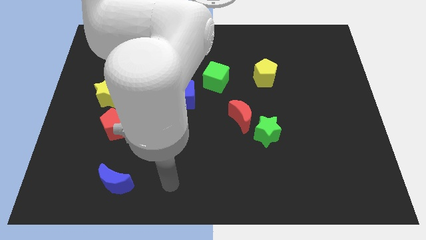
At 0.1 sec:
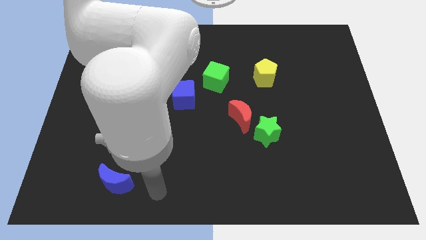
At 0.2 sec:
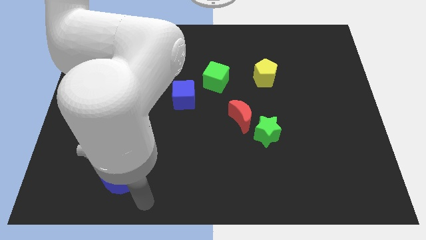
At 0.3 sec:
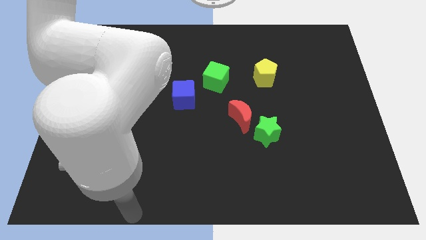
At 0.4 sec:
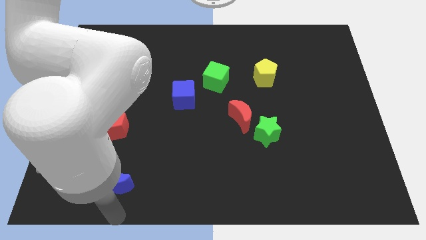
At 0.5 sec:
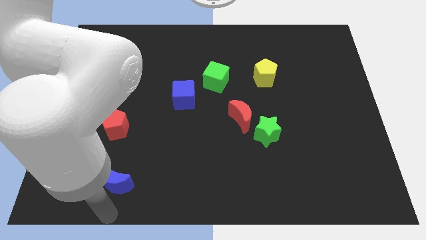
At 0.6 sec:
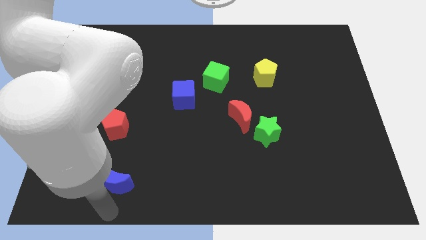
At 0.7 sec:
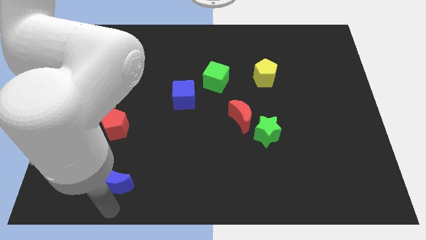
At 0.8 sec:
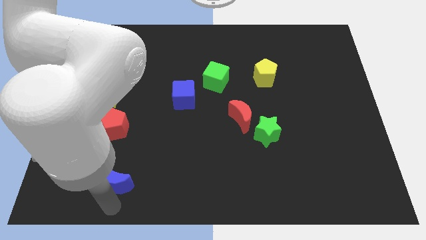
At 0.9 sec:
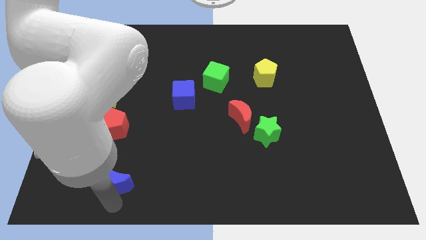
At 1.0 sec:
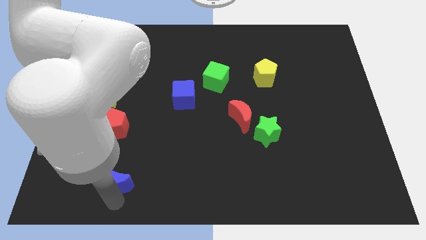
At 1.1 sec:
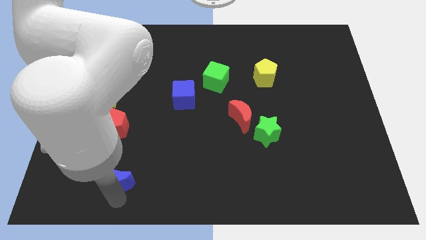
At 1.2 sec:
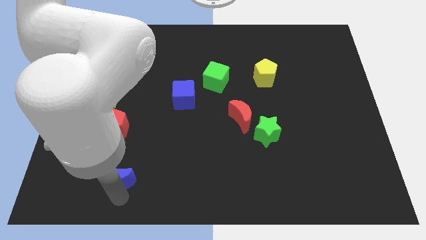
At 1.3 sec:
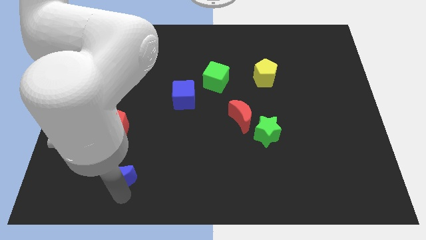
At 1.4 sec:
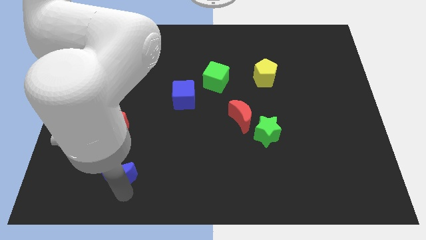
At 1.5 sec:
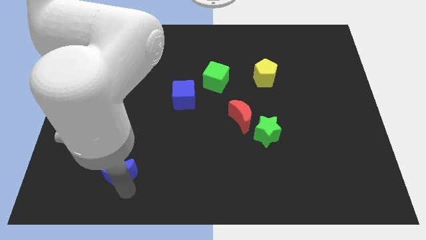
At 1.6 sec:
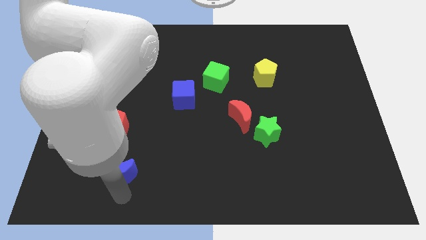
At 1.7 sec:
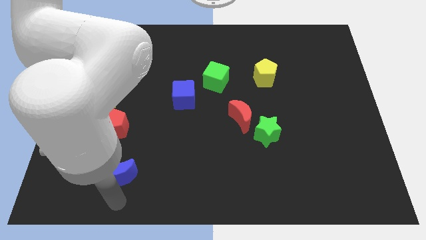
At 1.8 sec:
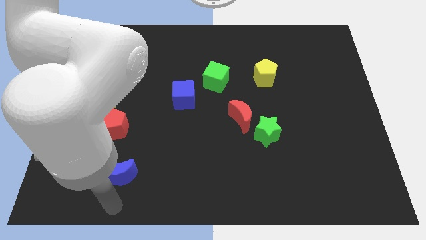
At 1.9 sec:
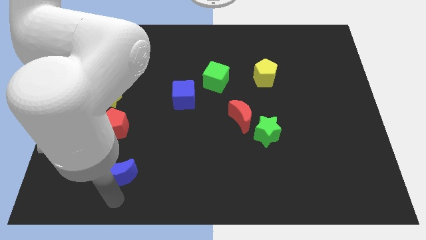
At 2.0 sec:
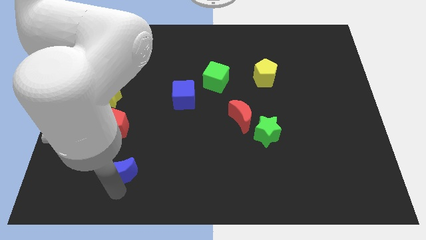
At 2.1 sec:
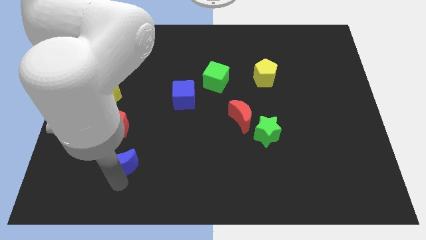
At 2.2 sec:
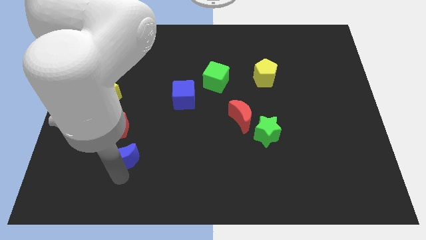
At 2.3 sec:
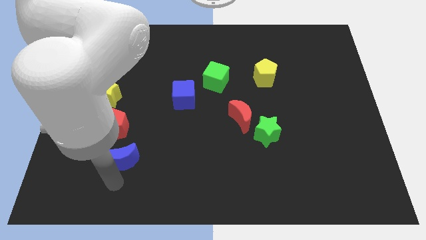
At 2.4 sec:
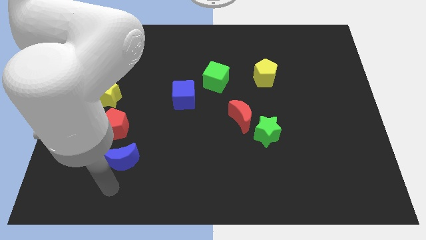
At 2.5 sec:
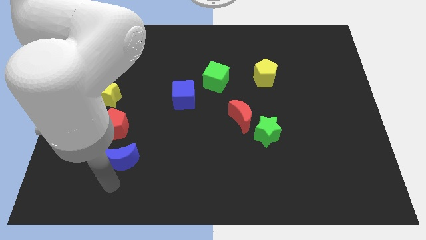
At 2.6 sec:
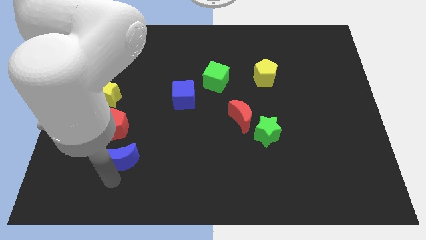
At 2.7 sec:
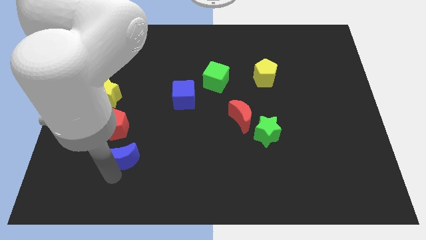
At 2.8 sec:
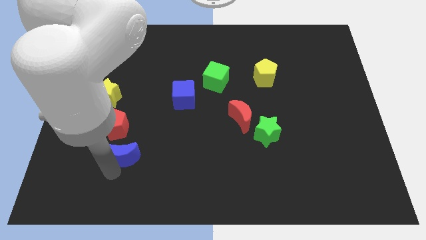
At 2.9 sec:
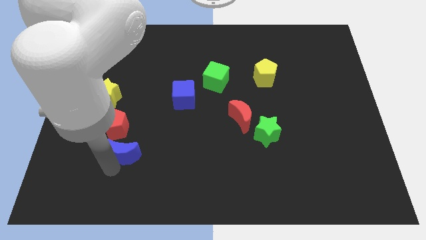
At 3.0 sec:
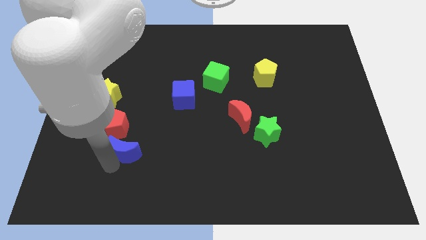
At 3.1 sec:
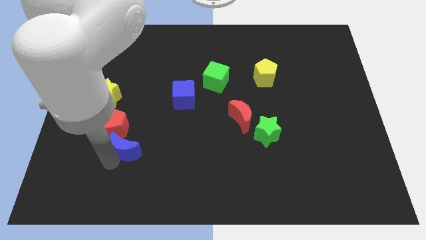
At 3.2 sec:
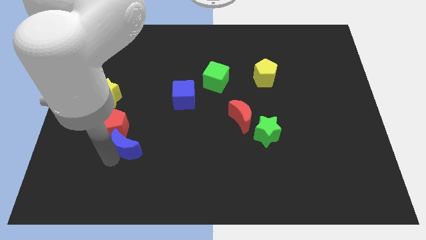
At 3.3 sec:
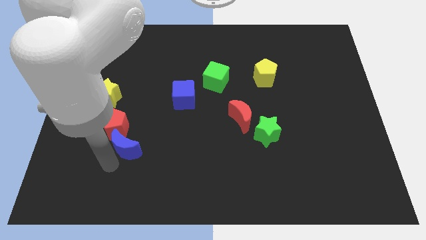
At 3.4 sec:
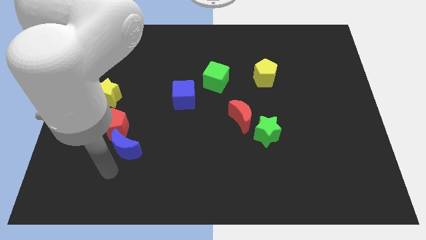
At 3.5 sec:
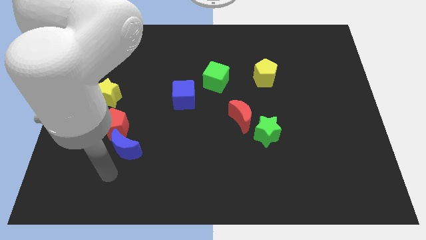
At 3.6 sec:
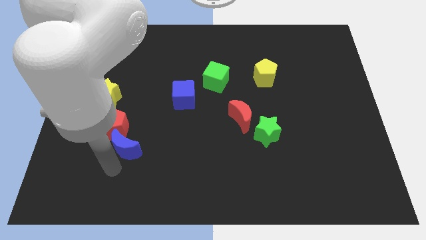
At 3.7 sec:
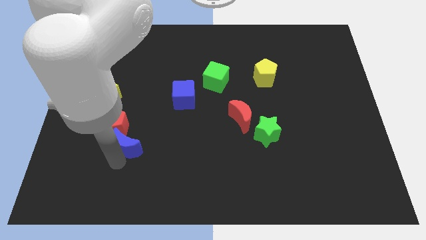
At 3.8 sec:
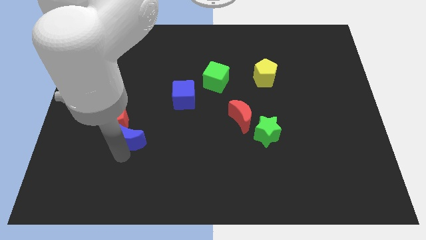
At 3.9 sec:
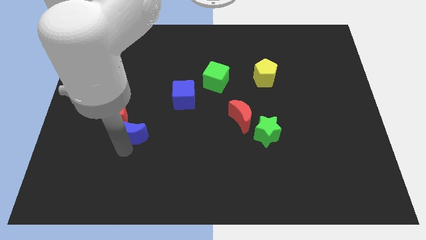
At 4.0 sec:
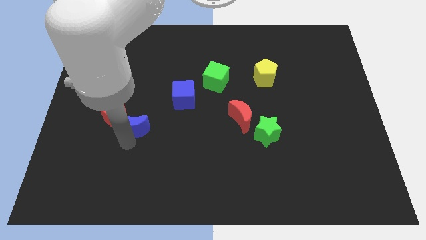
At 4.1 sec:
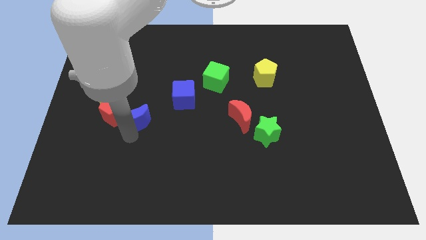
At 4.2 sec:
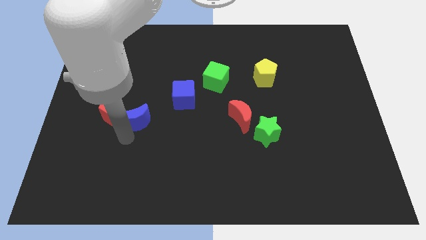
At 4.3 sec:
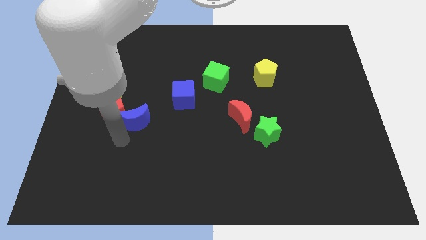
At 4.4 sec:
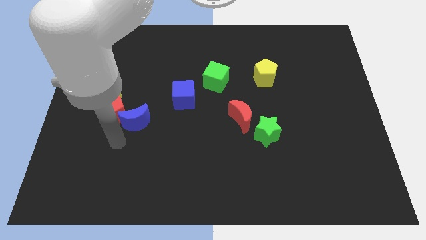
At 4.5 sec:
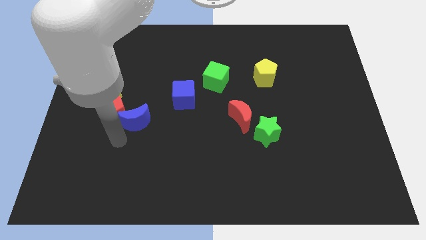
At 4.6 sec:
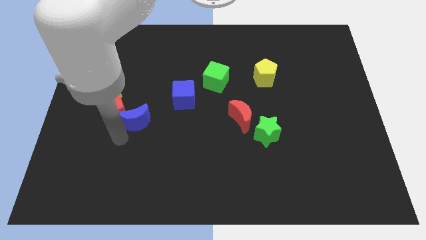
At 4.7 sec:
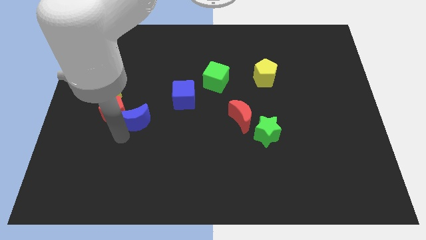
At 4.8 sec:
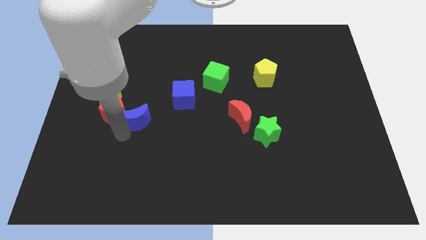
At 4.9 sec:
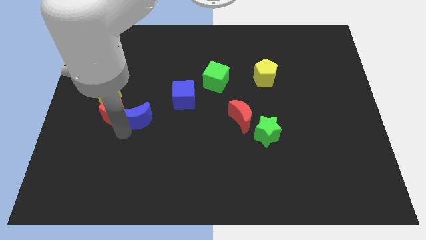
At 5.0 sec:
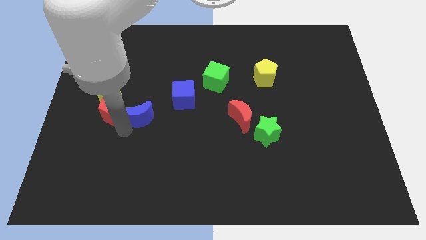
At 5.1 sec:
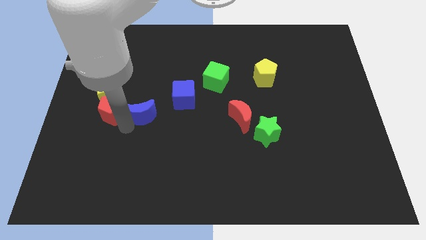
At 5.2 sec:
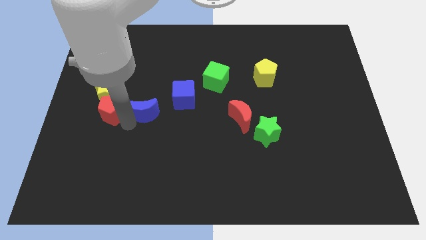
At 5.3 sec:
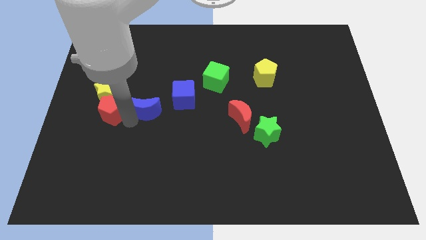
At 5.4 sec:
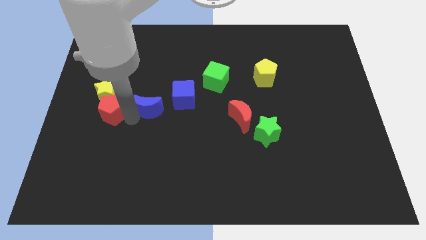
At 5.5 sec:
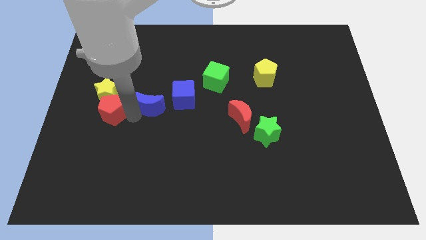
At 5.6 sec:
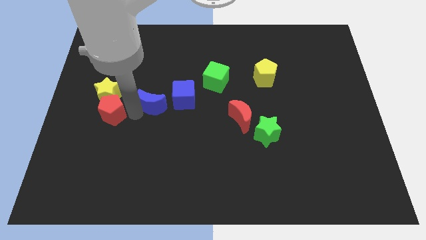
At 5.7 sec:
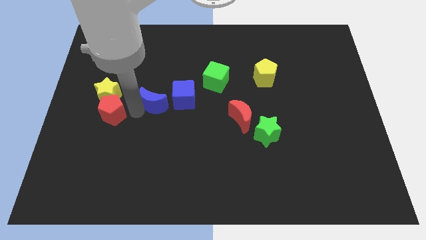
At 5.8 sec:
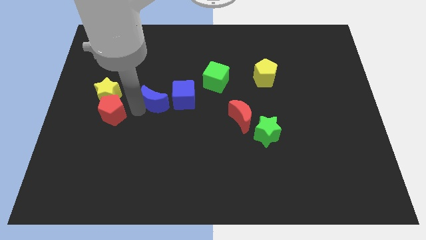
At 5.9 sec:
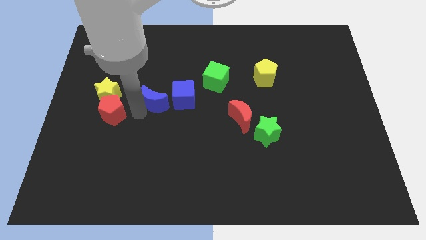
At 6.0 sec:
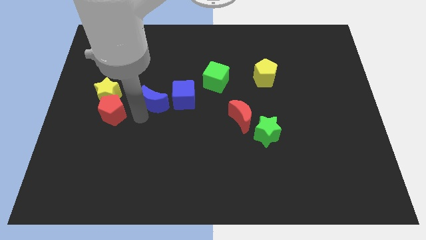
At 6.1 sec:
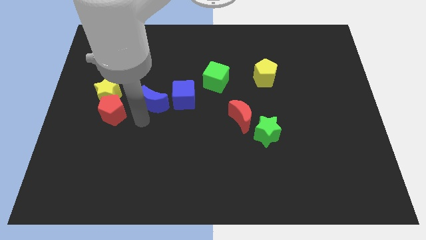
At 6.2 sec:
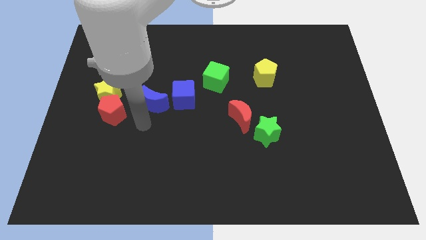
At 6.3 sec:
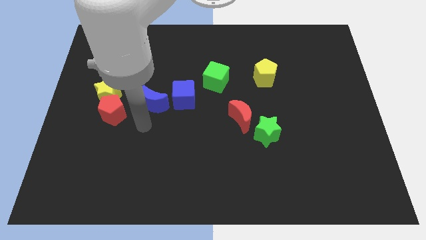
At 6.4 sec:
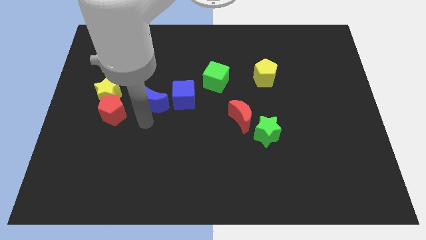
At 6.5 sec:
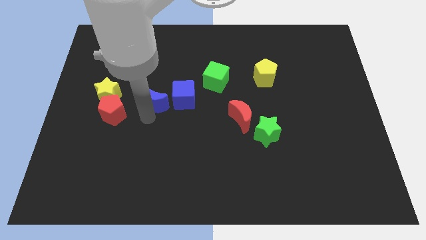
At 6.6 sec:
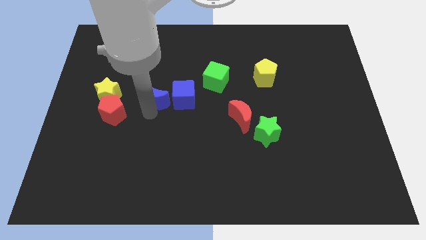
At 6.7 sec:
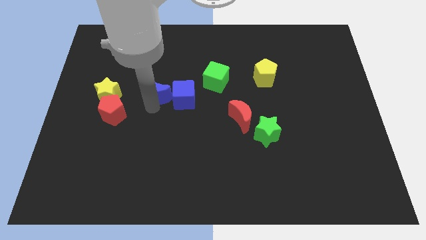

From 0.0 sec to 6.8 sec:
put the blue moon to the top left of the blue cube

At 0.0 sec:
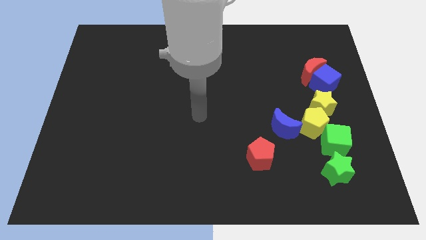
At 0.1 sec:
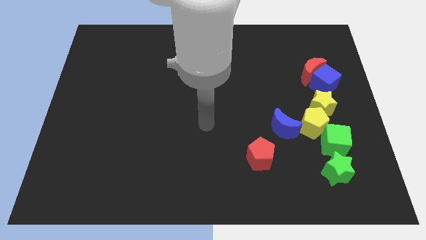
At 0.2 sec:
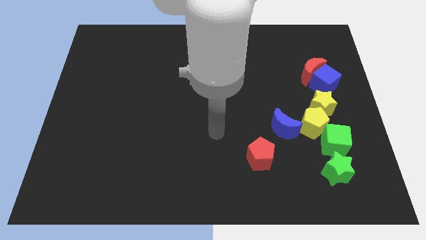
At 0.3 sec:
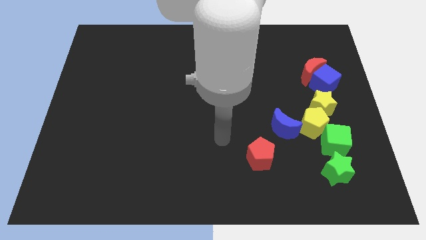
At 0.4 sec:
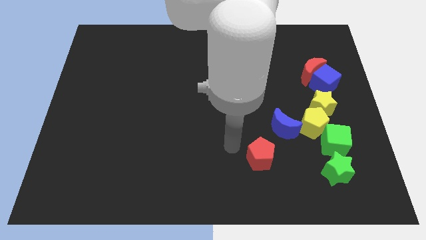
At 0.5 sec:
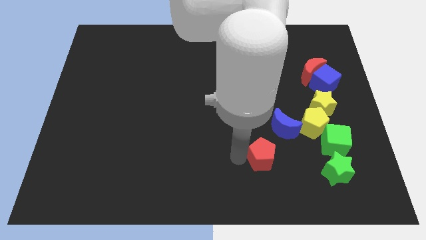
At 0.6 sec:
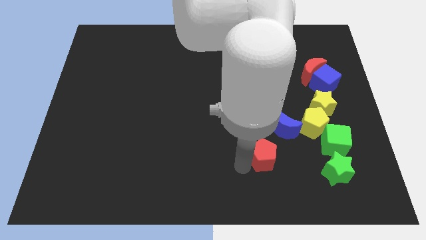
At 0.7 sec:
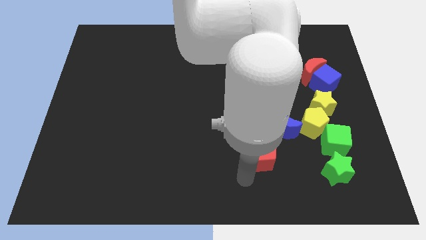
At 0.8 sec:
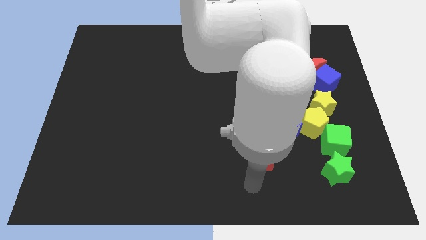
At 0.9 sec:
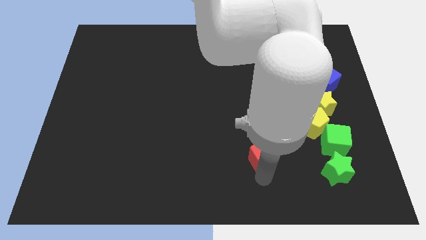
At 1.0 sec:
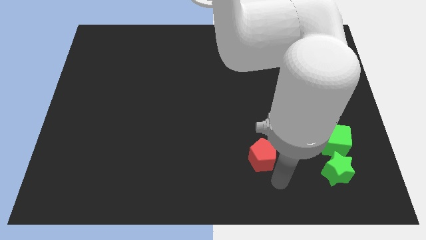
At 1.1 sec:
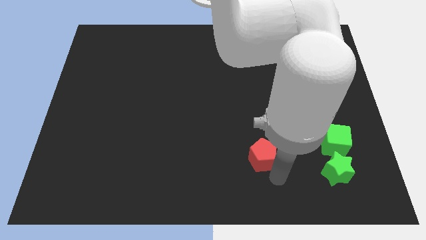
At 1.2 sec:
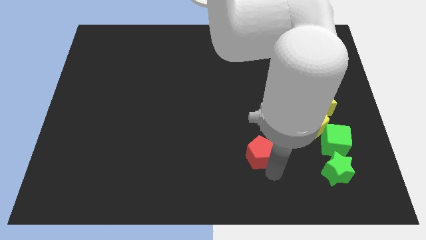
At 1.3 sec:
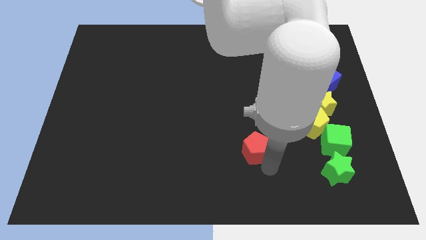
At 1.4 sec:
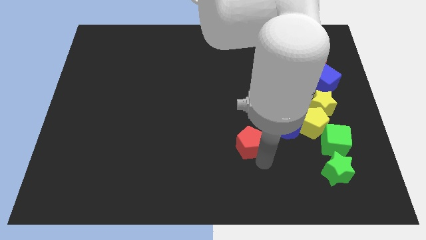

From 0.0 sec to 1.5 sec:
put the red pentagon to the left of the blue moon
